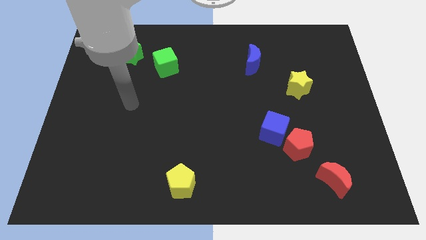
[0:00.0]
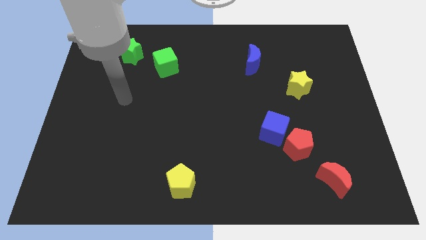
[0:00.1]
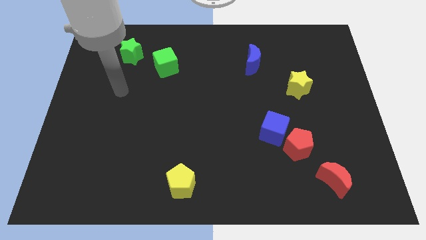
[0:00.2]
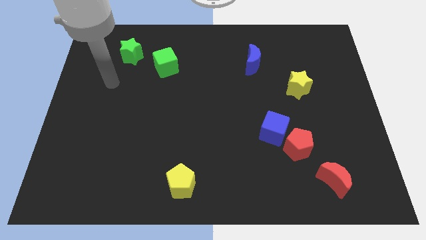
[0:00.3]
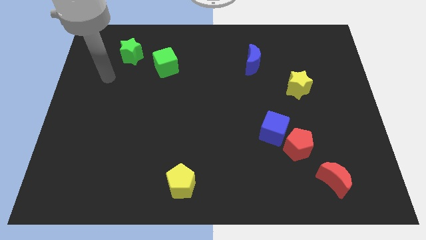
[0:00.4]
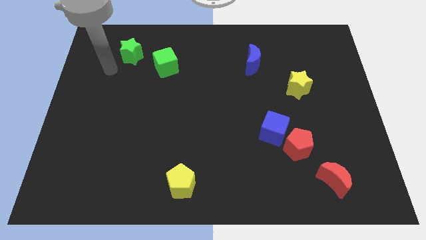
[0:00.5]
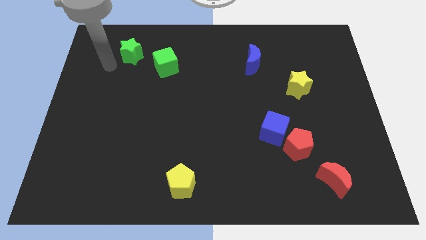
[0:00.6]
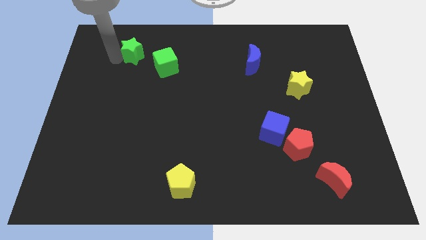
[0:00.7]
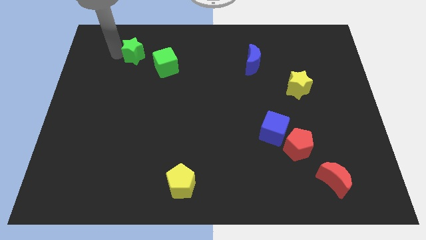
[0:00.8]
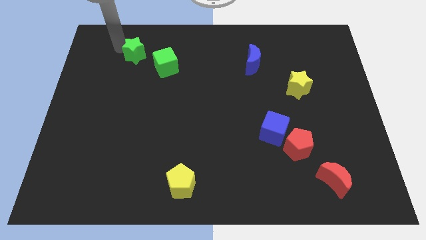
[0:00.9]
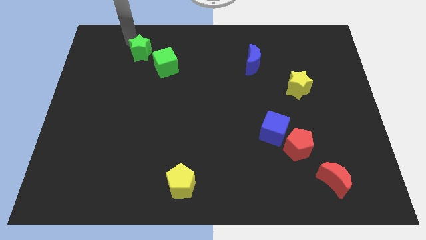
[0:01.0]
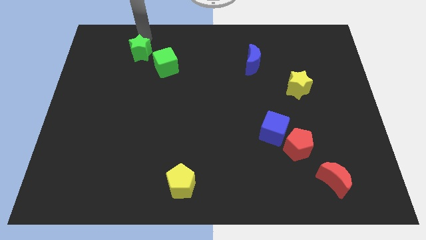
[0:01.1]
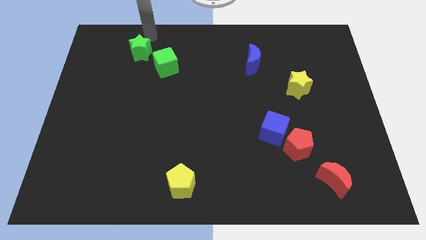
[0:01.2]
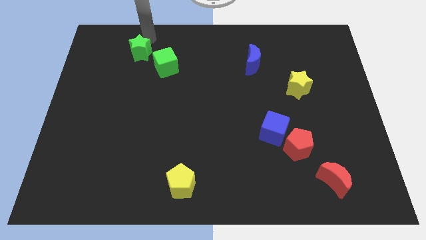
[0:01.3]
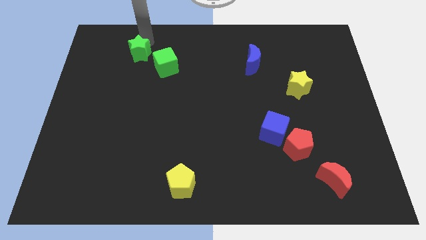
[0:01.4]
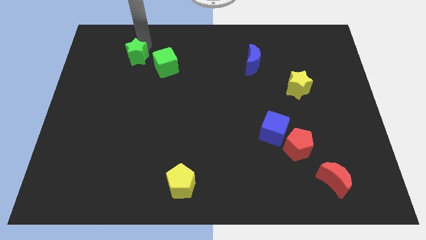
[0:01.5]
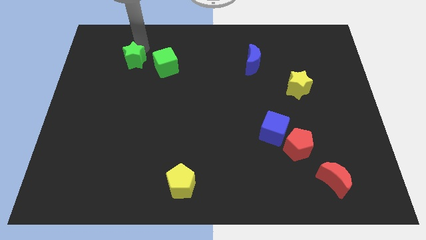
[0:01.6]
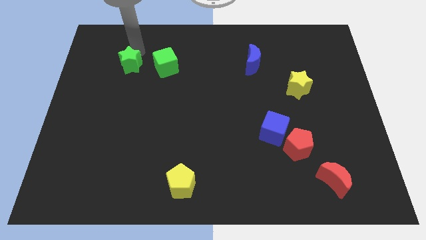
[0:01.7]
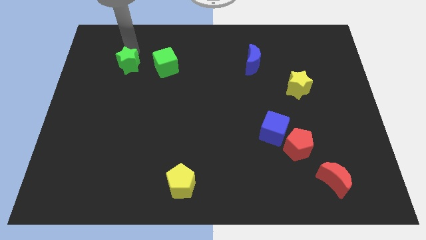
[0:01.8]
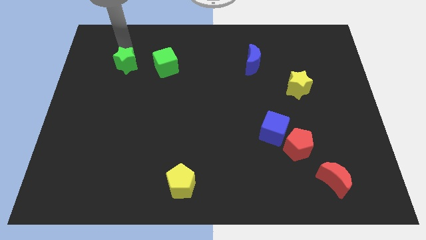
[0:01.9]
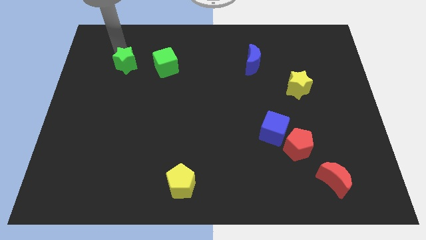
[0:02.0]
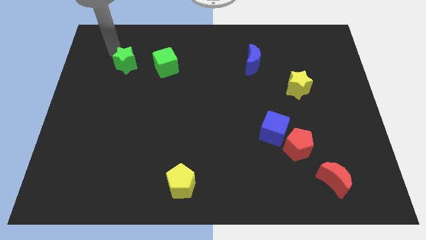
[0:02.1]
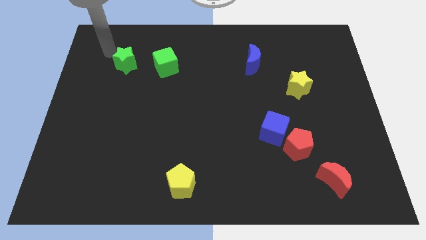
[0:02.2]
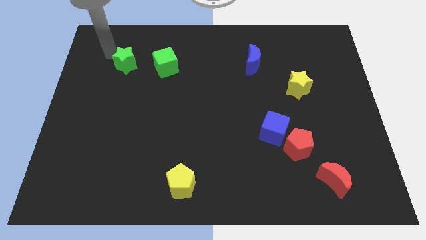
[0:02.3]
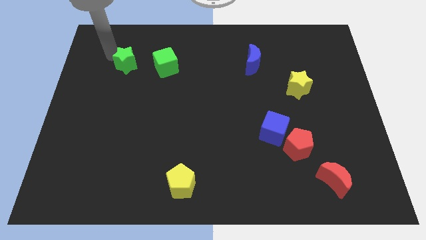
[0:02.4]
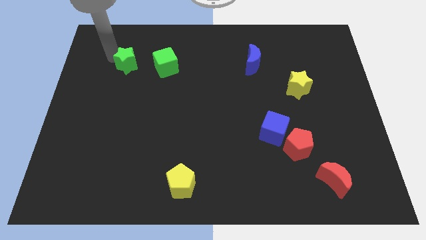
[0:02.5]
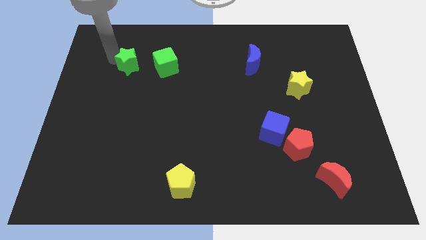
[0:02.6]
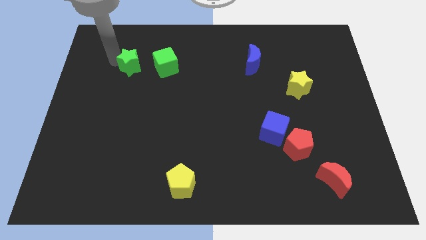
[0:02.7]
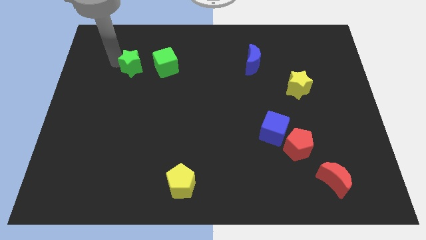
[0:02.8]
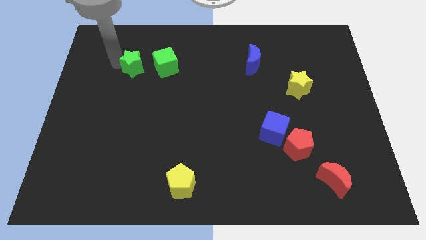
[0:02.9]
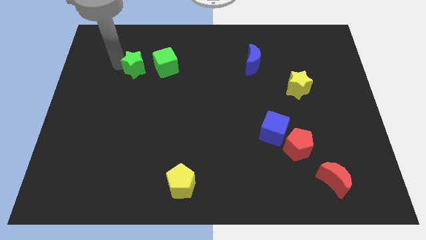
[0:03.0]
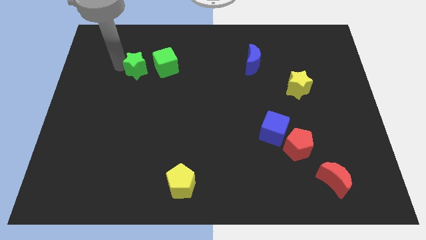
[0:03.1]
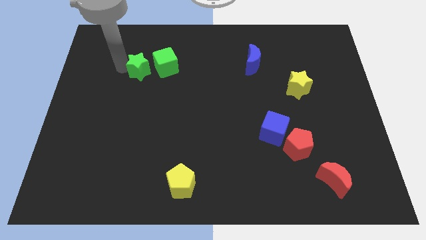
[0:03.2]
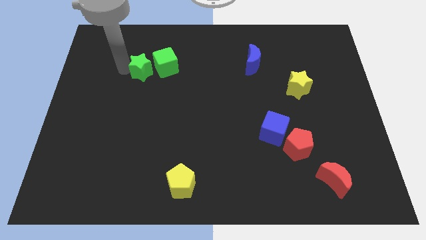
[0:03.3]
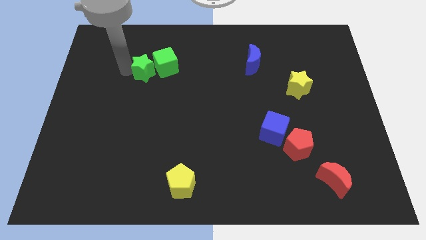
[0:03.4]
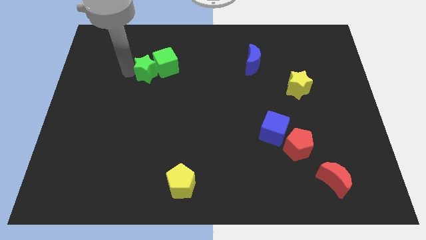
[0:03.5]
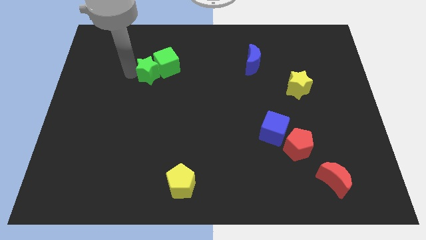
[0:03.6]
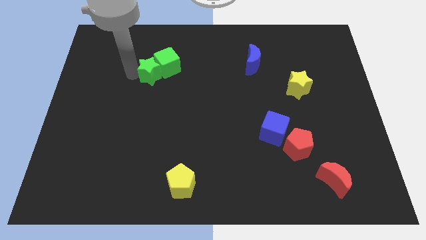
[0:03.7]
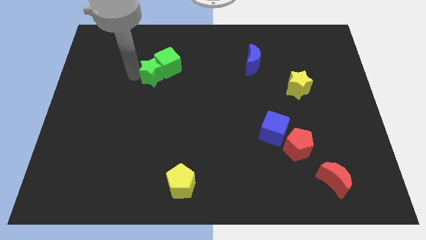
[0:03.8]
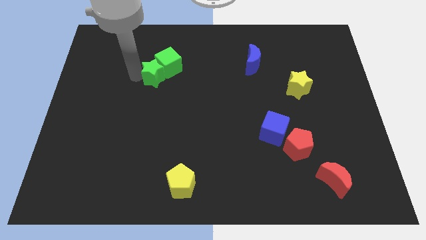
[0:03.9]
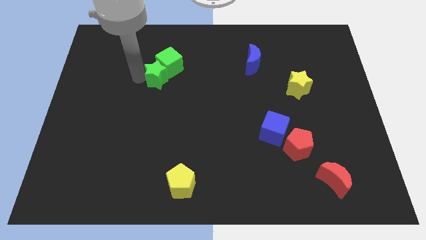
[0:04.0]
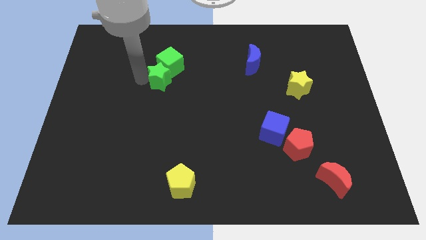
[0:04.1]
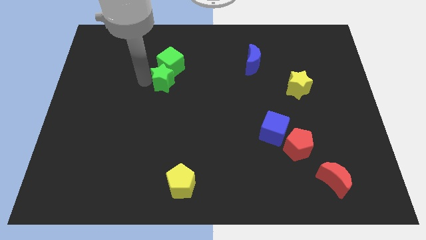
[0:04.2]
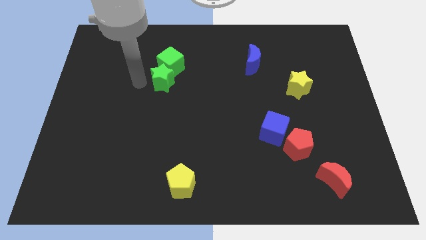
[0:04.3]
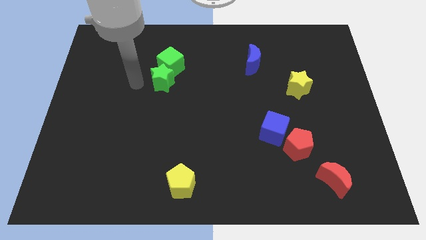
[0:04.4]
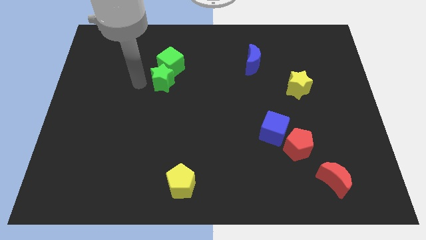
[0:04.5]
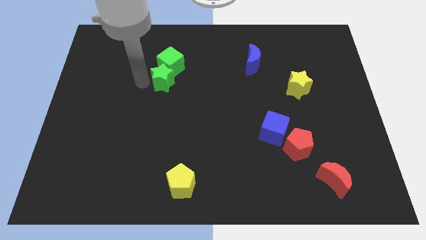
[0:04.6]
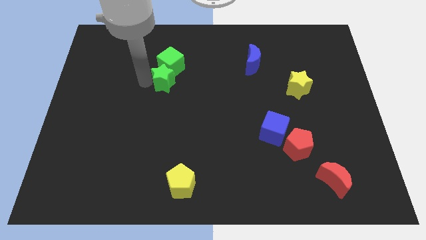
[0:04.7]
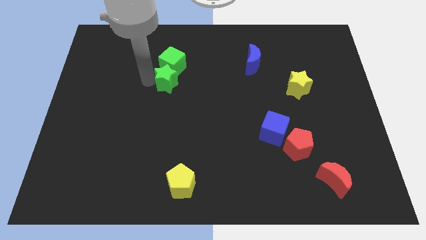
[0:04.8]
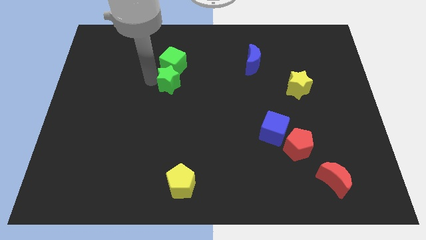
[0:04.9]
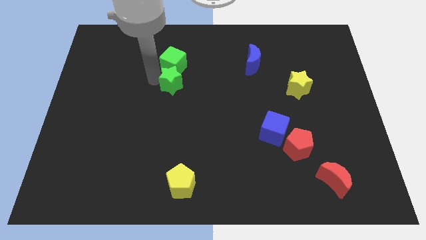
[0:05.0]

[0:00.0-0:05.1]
put the green star diagonally down and to the right of the green cube

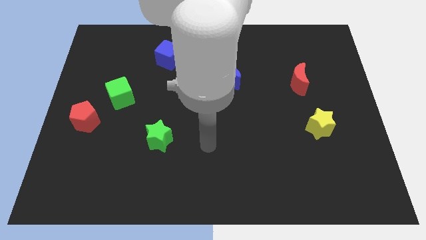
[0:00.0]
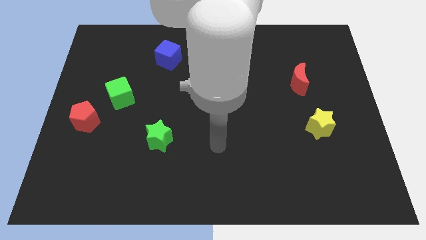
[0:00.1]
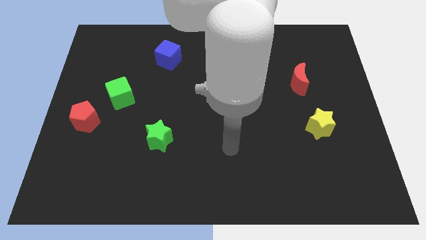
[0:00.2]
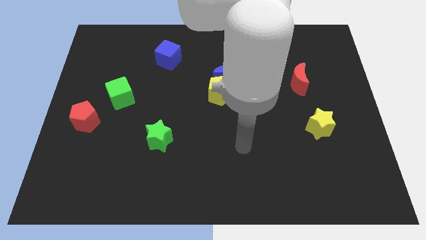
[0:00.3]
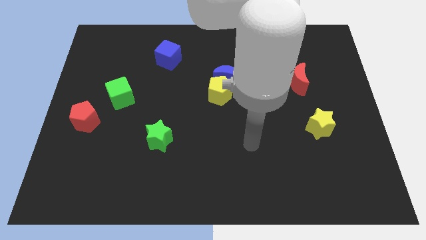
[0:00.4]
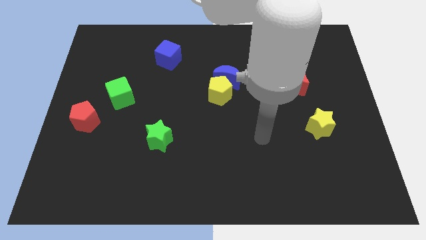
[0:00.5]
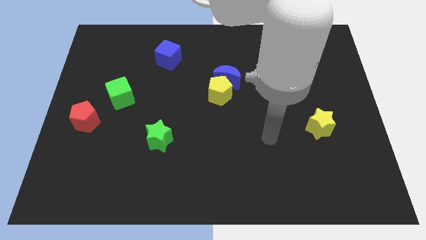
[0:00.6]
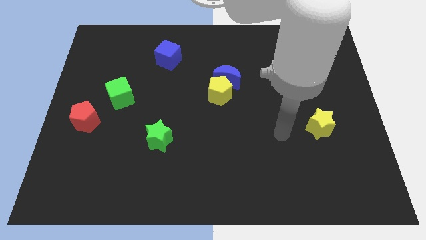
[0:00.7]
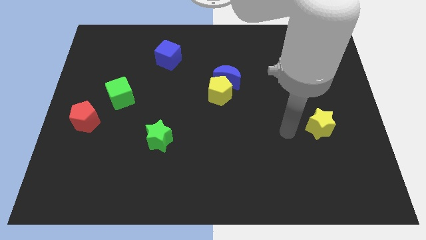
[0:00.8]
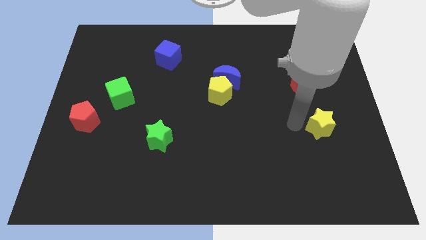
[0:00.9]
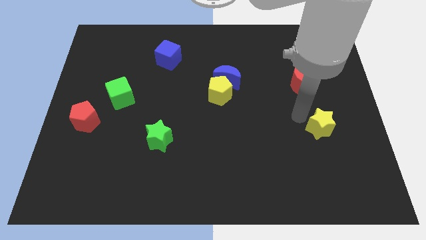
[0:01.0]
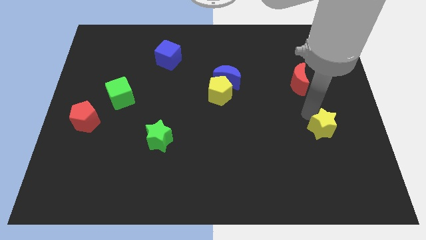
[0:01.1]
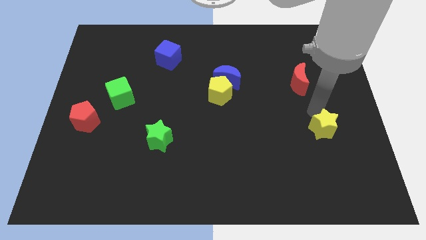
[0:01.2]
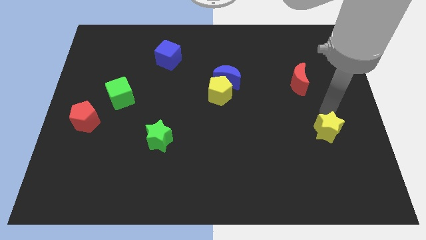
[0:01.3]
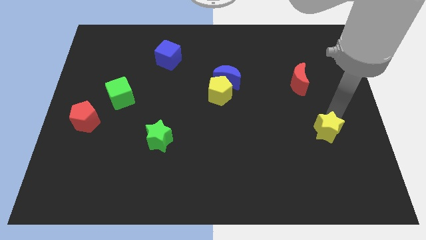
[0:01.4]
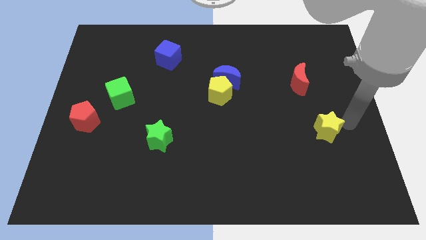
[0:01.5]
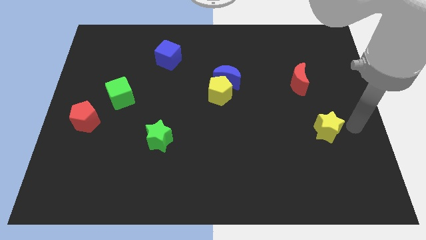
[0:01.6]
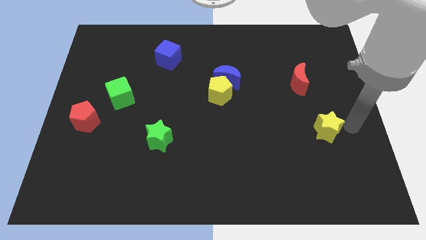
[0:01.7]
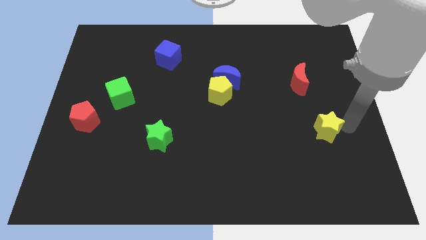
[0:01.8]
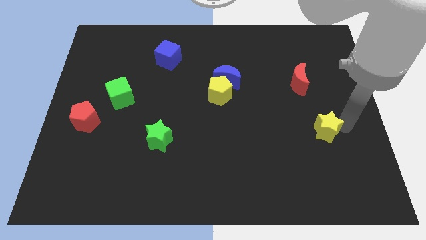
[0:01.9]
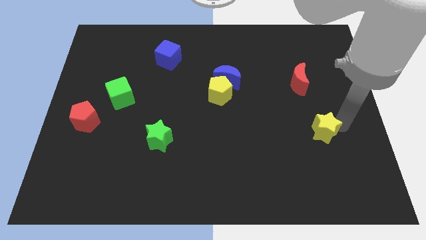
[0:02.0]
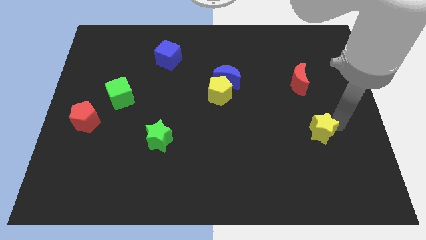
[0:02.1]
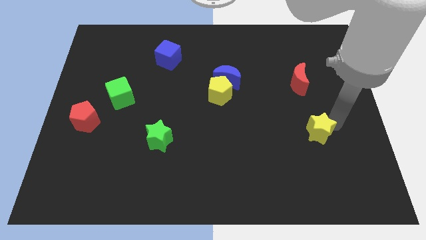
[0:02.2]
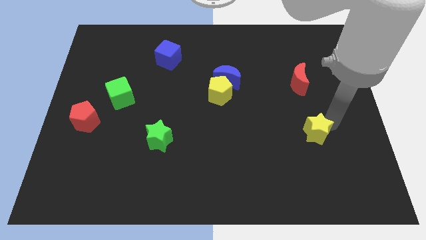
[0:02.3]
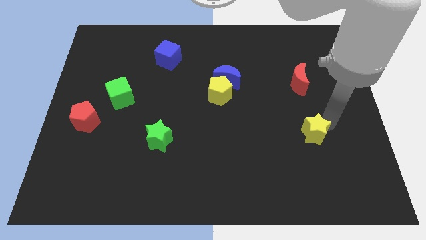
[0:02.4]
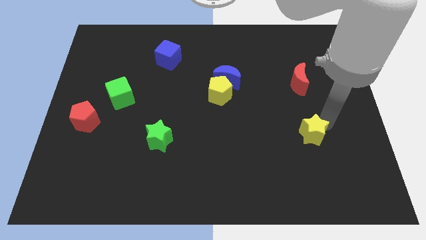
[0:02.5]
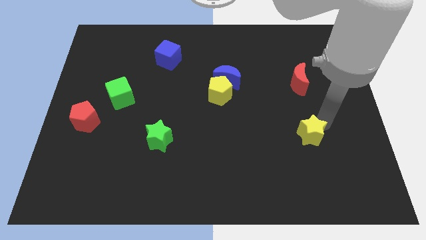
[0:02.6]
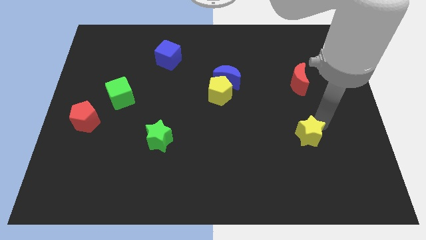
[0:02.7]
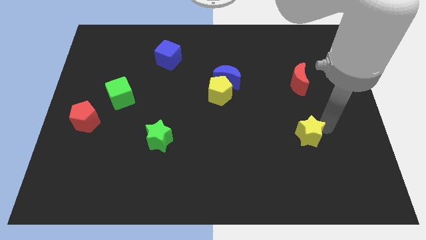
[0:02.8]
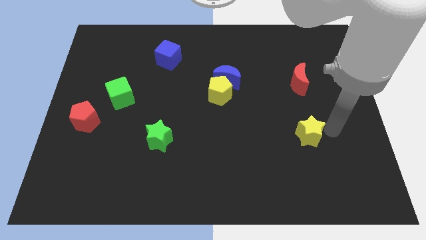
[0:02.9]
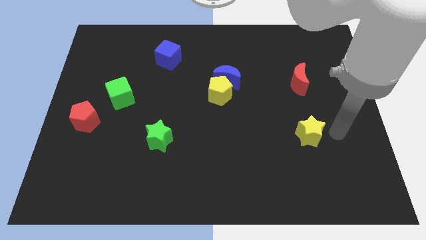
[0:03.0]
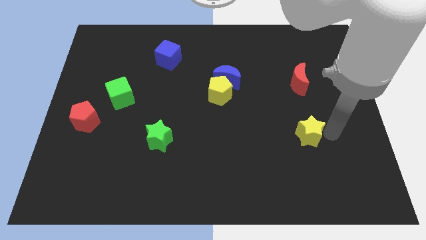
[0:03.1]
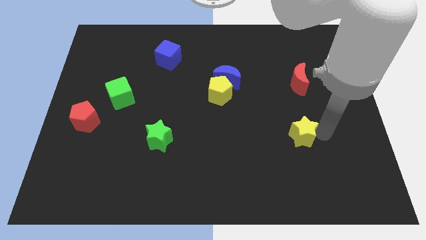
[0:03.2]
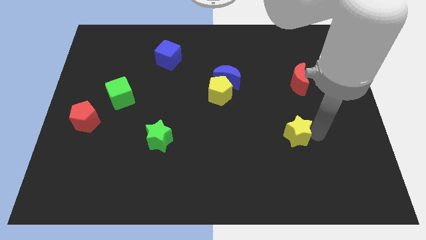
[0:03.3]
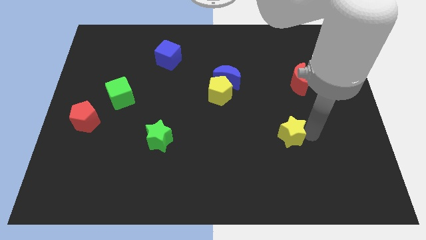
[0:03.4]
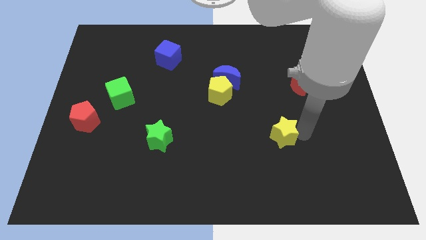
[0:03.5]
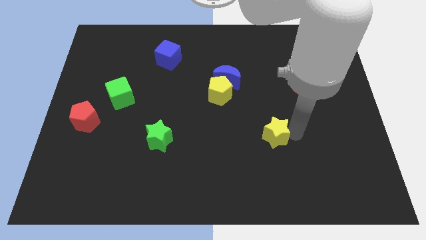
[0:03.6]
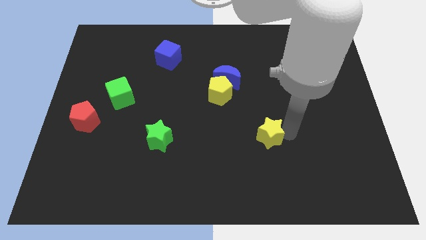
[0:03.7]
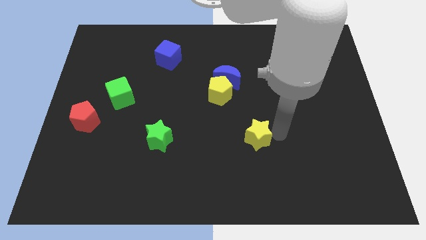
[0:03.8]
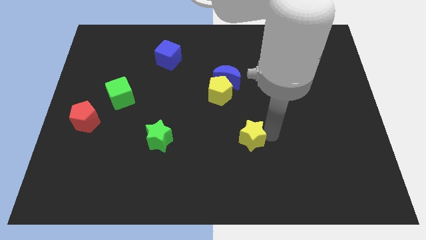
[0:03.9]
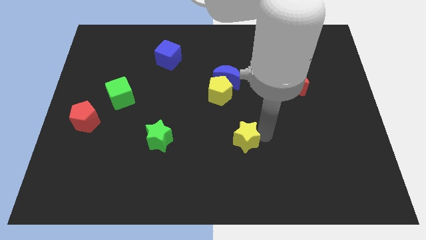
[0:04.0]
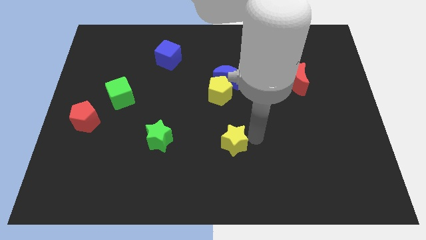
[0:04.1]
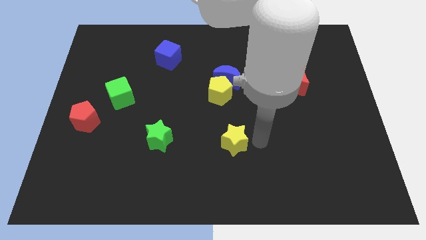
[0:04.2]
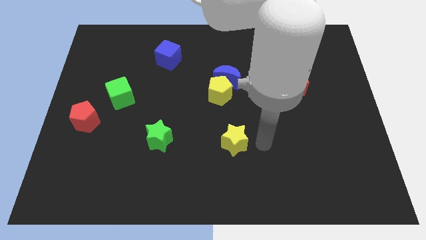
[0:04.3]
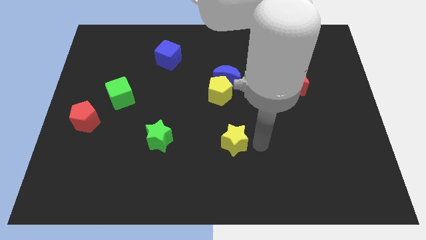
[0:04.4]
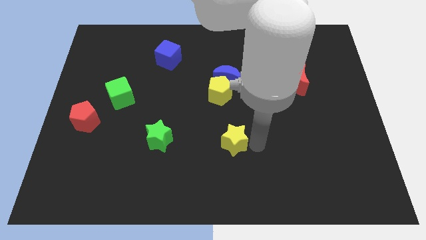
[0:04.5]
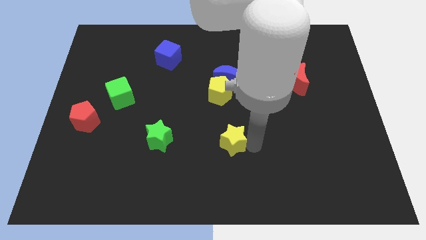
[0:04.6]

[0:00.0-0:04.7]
put the yellow star to the right of the green star
